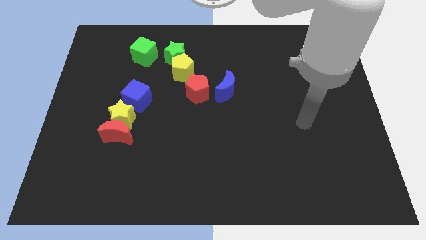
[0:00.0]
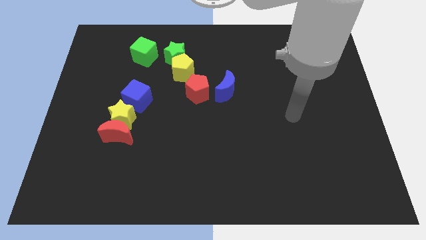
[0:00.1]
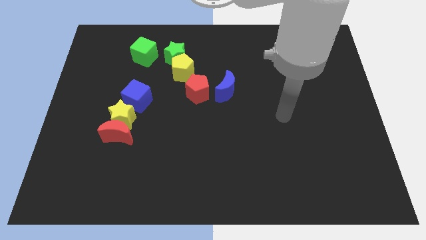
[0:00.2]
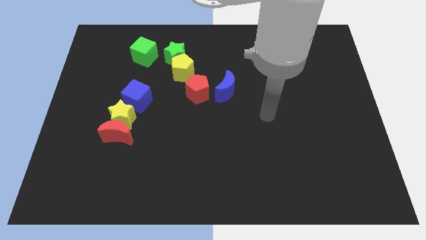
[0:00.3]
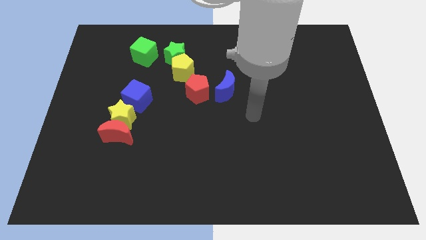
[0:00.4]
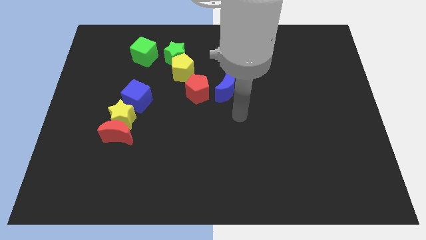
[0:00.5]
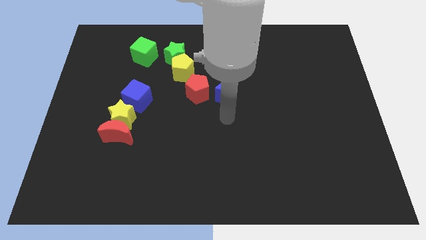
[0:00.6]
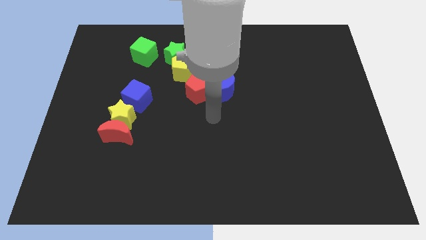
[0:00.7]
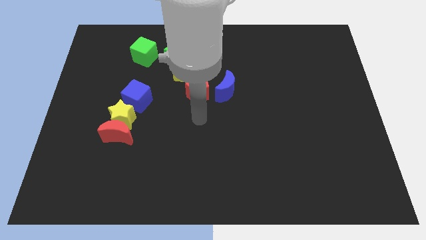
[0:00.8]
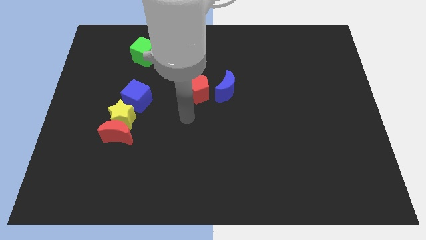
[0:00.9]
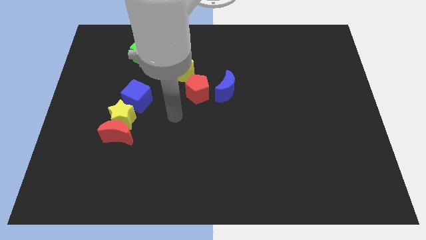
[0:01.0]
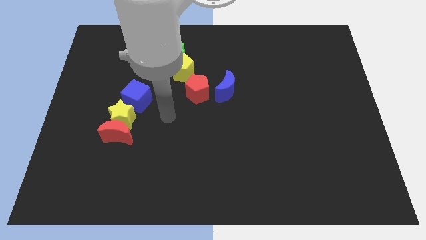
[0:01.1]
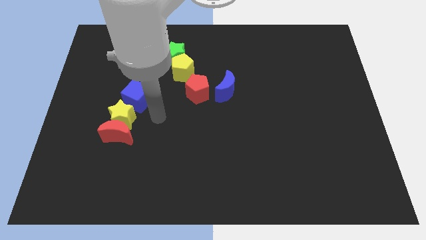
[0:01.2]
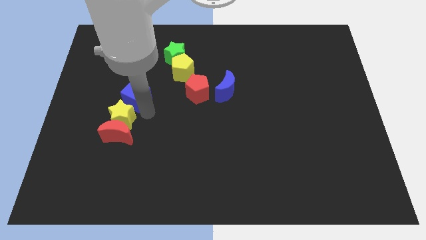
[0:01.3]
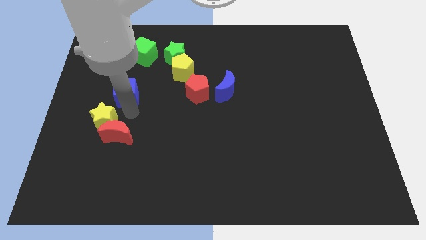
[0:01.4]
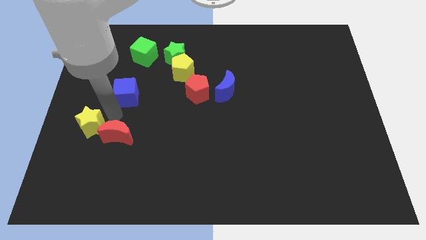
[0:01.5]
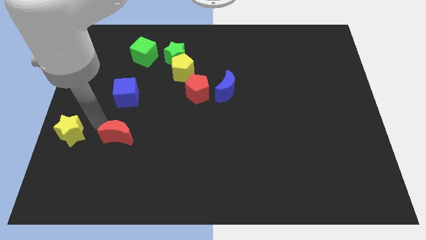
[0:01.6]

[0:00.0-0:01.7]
move the red moon away from the yellow star

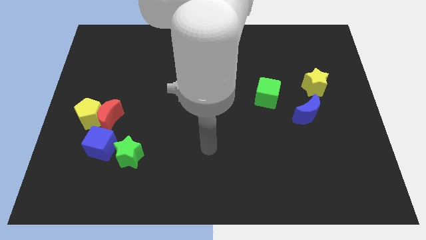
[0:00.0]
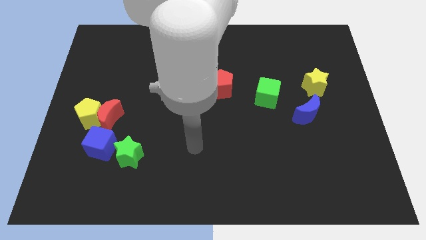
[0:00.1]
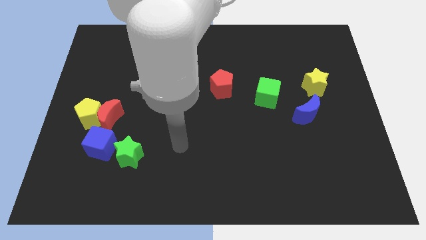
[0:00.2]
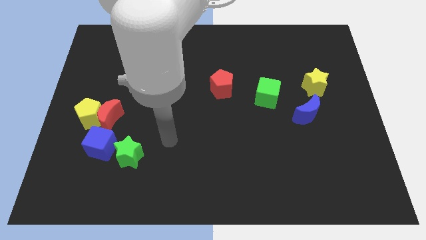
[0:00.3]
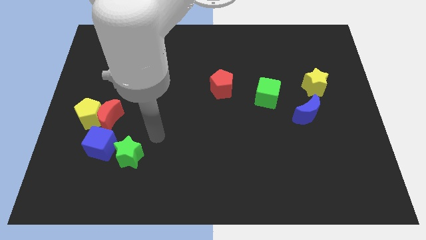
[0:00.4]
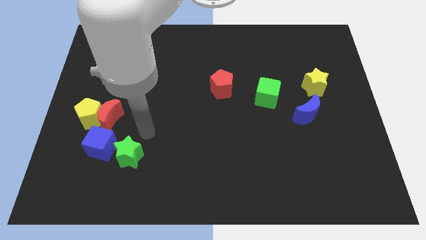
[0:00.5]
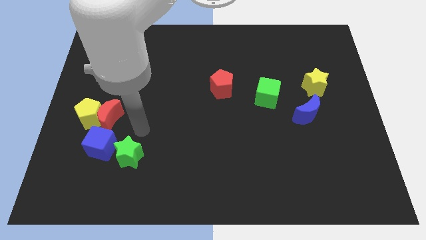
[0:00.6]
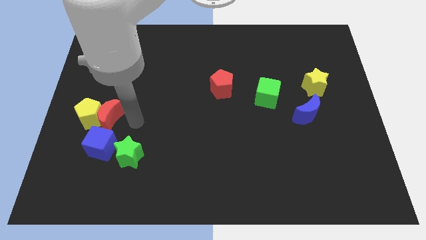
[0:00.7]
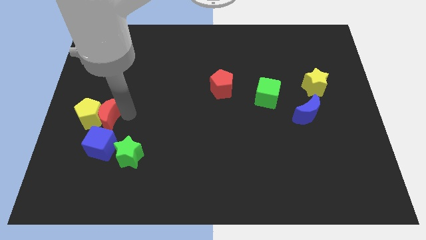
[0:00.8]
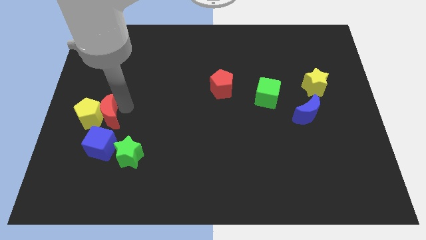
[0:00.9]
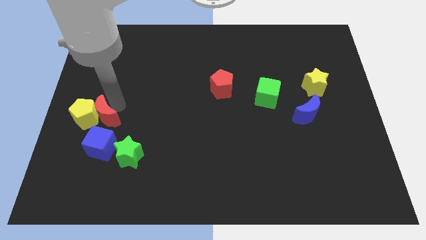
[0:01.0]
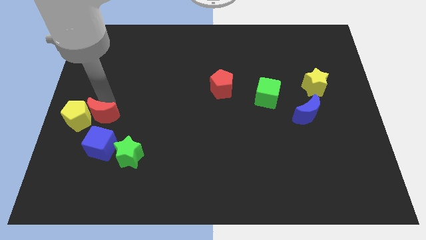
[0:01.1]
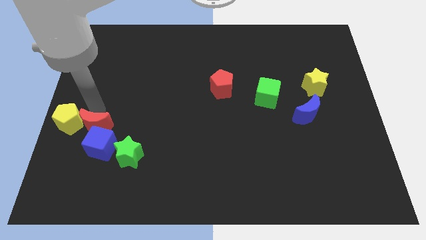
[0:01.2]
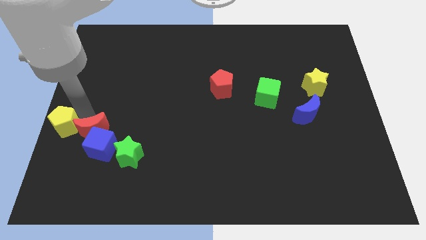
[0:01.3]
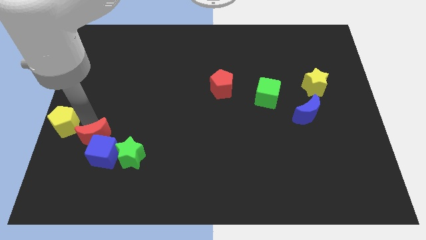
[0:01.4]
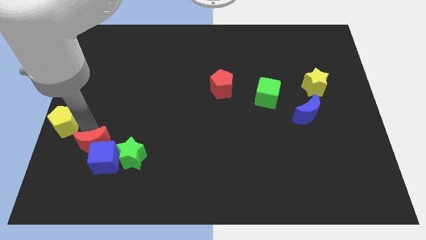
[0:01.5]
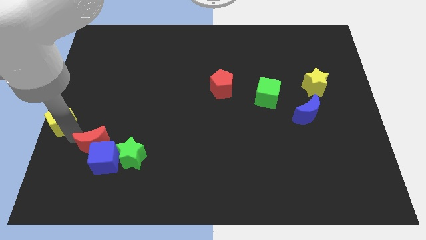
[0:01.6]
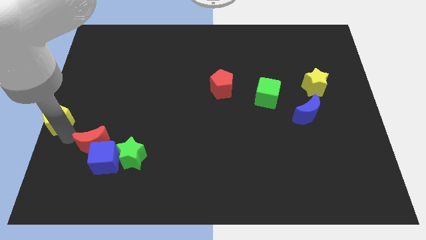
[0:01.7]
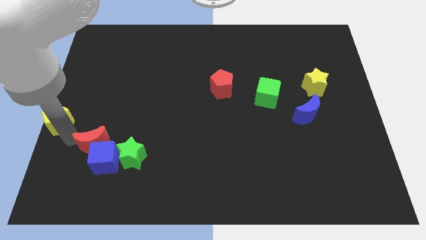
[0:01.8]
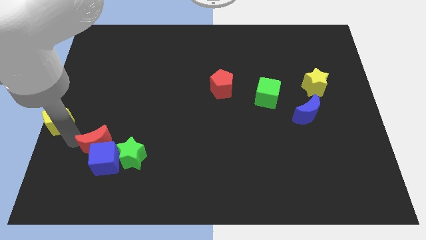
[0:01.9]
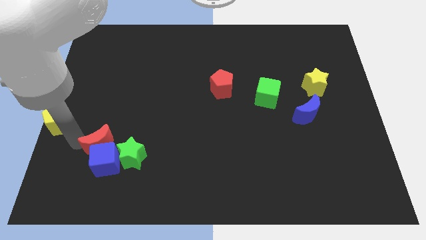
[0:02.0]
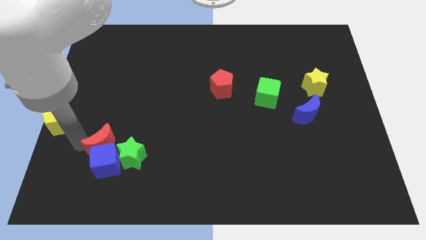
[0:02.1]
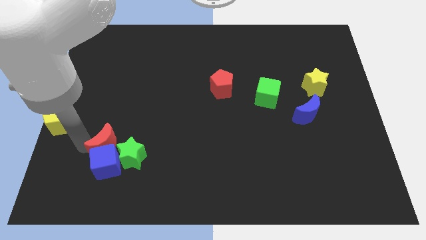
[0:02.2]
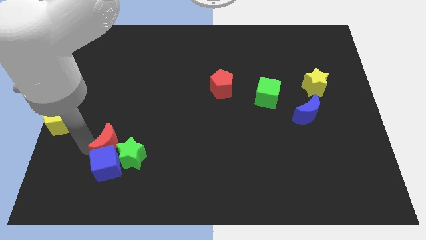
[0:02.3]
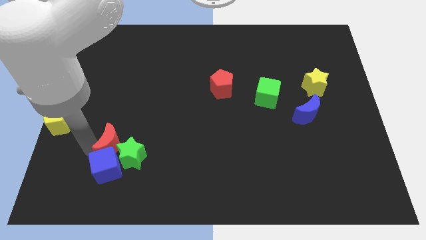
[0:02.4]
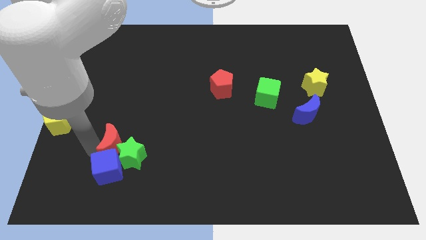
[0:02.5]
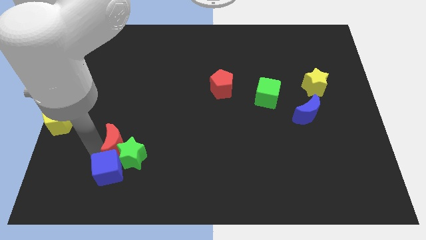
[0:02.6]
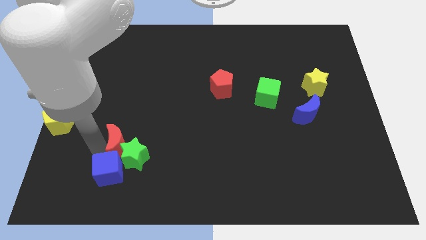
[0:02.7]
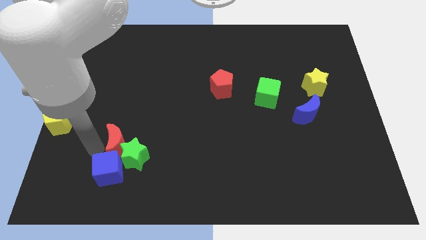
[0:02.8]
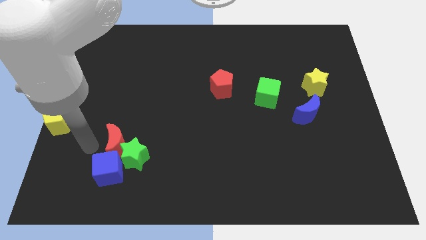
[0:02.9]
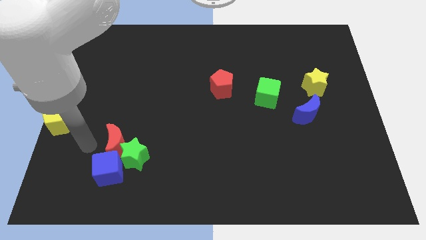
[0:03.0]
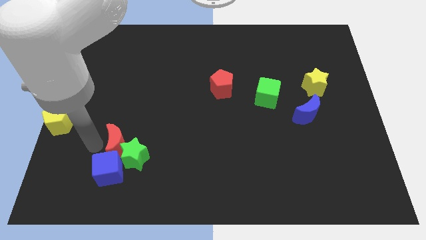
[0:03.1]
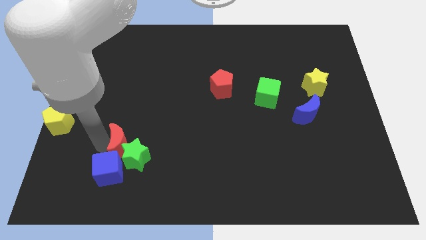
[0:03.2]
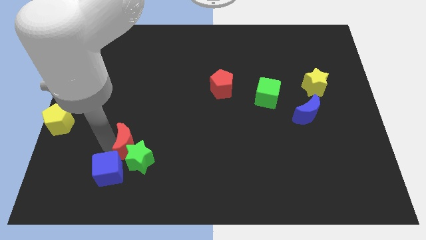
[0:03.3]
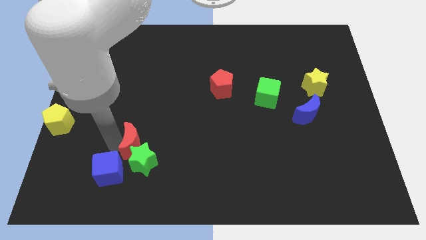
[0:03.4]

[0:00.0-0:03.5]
pull the red moon apart from the yellow pentagon and blue cube

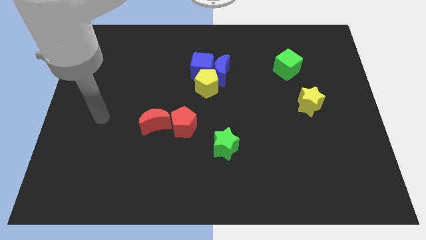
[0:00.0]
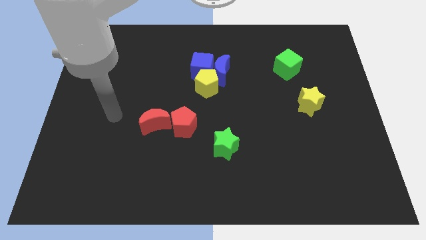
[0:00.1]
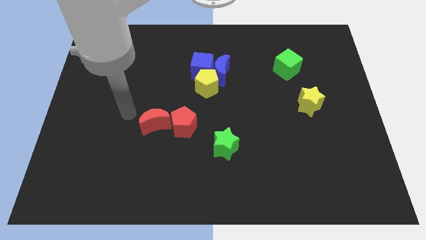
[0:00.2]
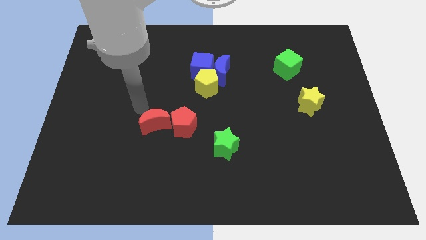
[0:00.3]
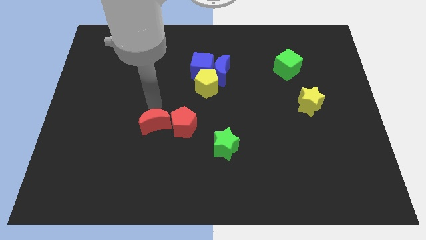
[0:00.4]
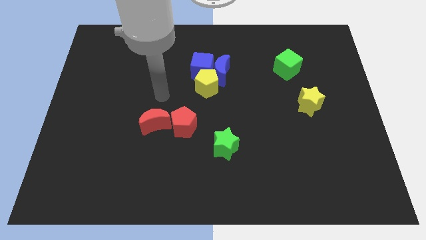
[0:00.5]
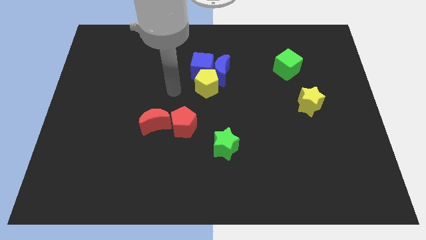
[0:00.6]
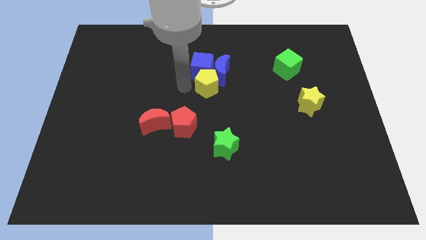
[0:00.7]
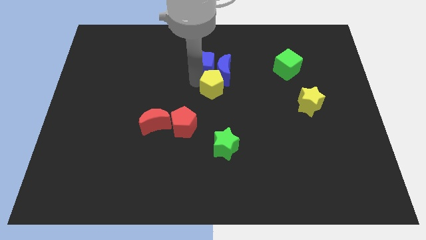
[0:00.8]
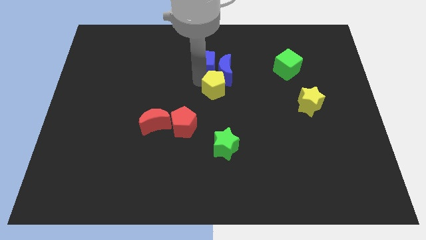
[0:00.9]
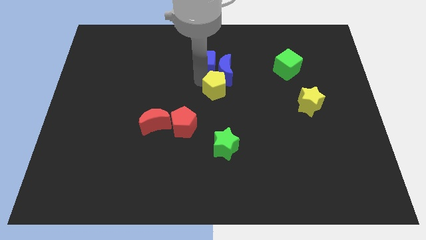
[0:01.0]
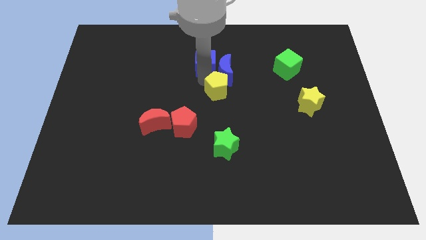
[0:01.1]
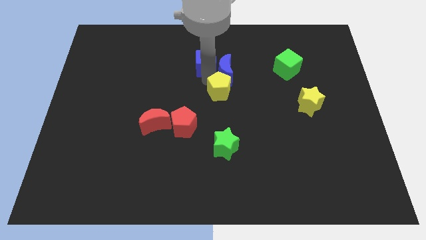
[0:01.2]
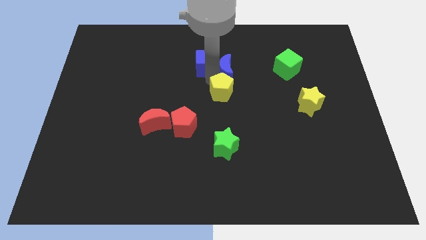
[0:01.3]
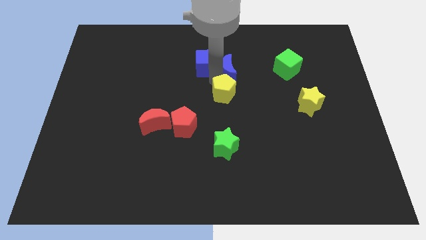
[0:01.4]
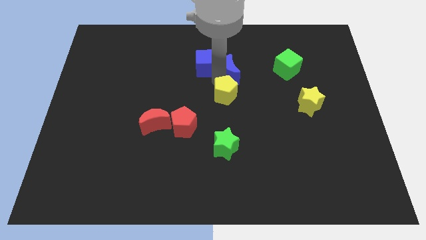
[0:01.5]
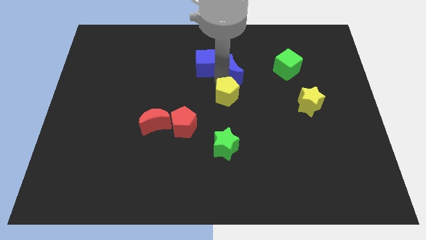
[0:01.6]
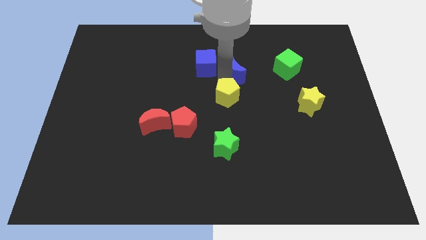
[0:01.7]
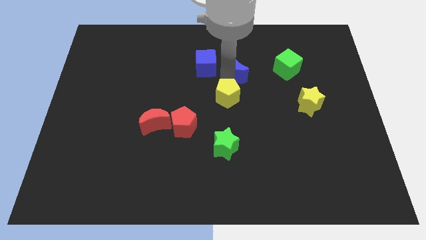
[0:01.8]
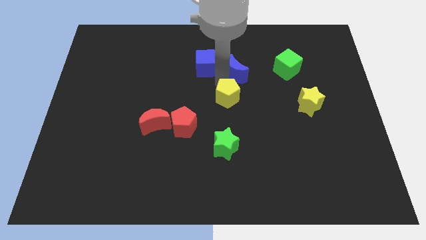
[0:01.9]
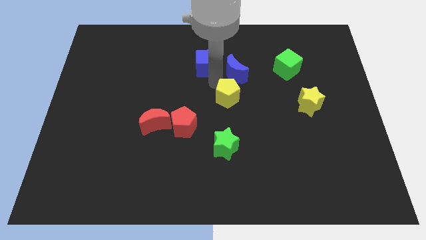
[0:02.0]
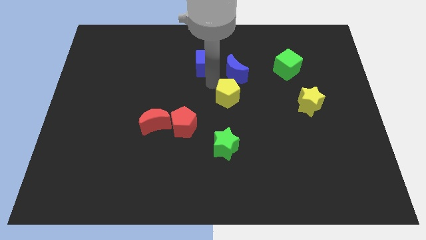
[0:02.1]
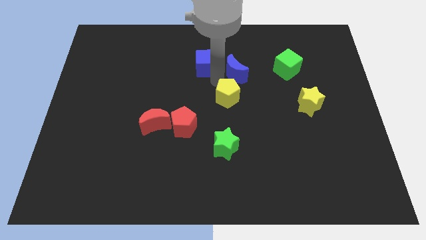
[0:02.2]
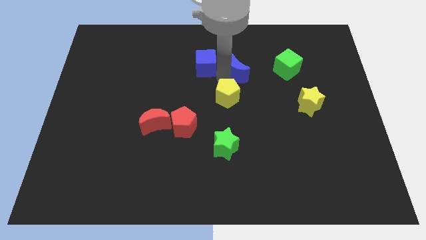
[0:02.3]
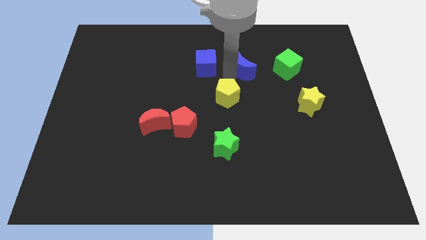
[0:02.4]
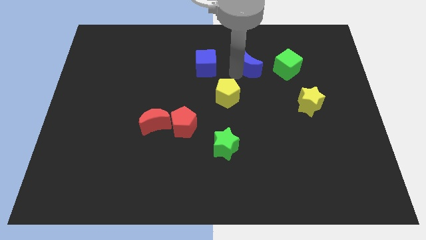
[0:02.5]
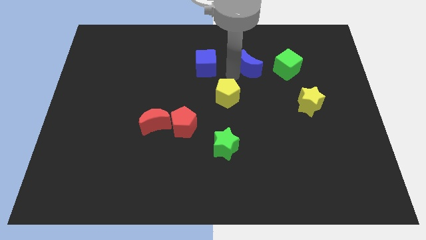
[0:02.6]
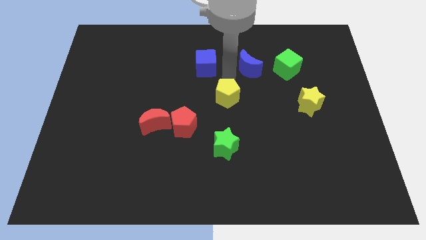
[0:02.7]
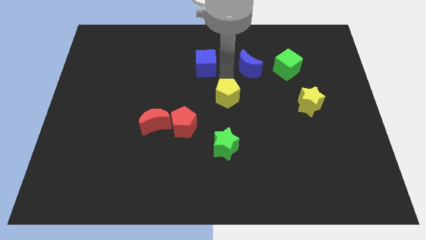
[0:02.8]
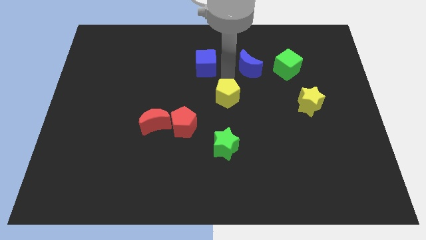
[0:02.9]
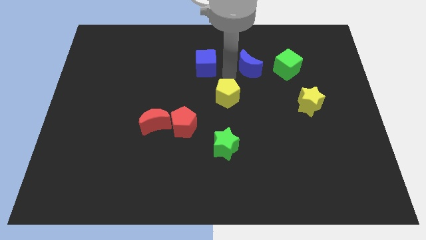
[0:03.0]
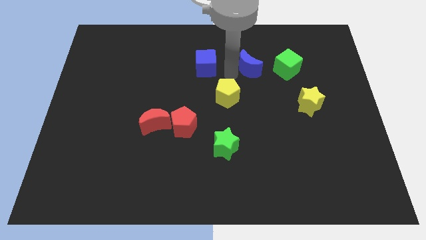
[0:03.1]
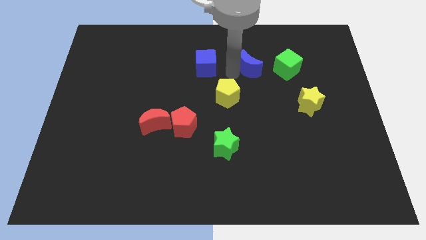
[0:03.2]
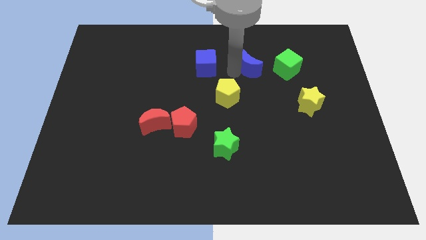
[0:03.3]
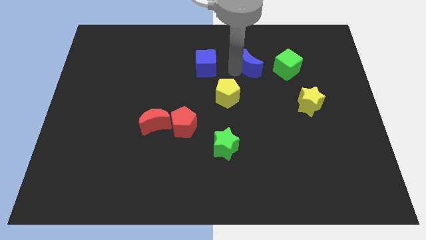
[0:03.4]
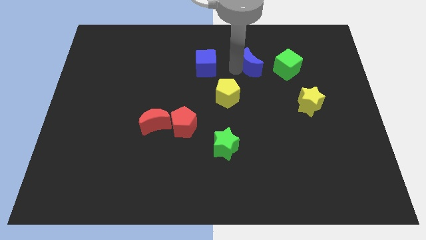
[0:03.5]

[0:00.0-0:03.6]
pull the blue moon apart from the blue cube and yellow pentagon

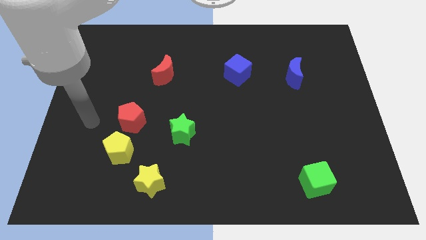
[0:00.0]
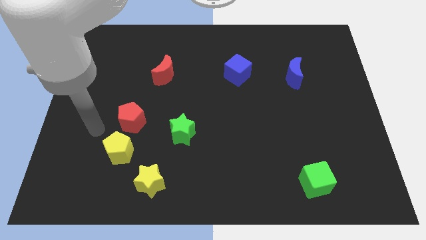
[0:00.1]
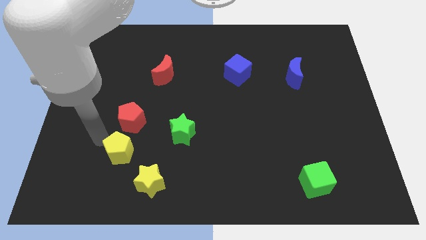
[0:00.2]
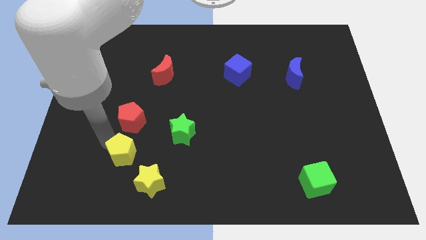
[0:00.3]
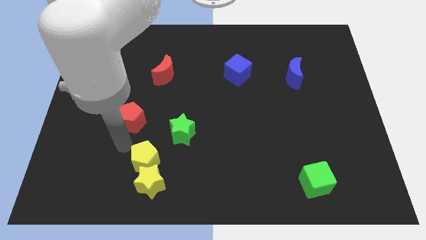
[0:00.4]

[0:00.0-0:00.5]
pull the red pentagon apart from the yellow pentagon
